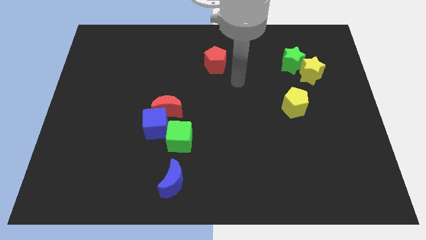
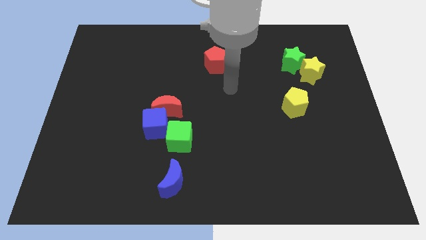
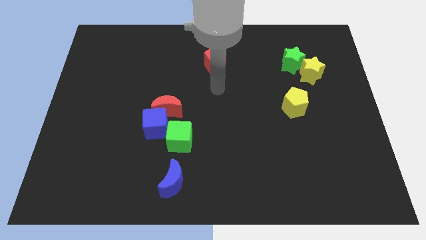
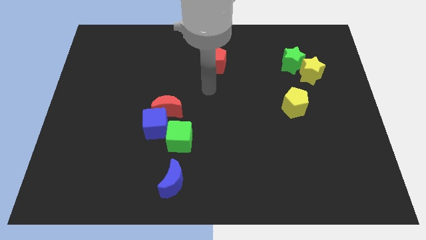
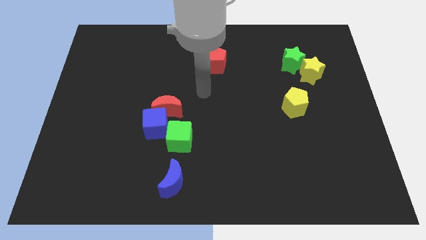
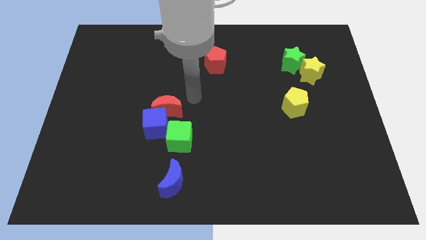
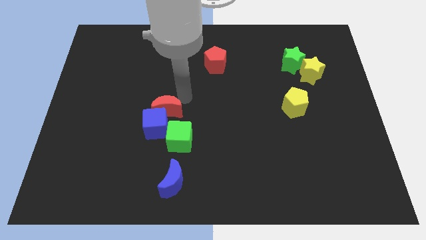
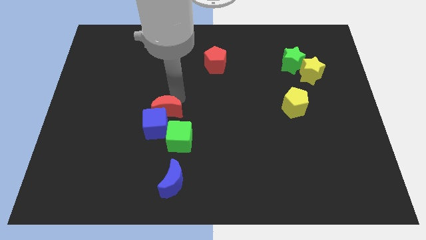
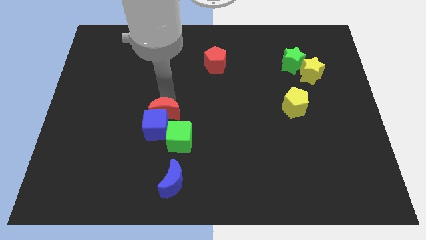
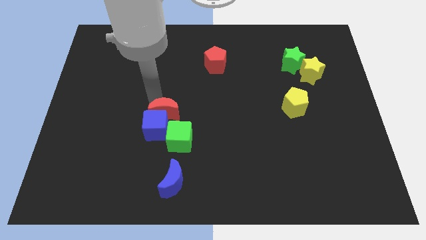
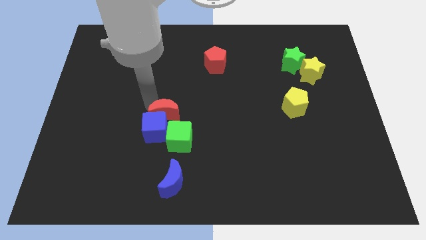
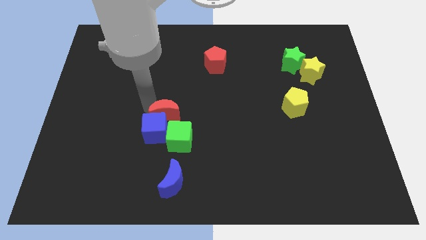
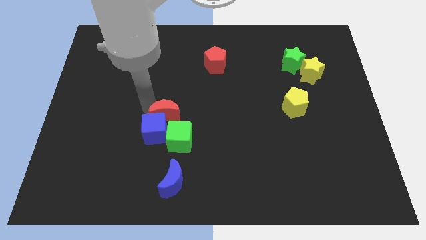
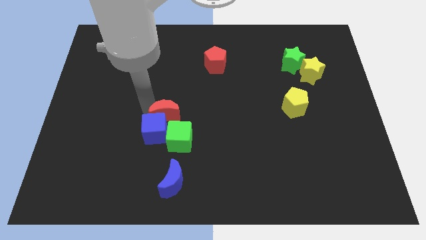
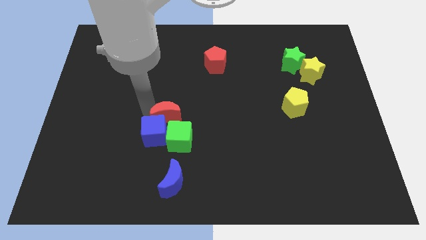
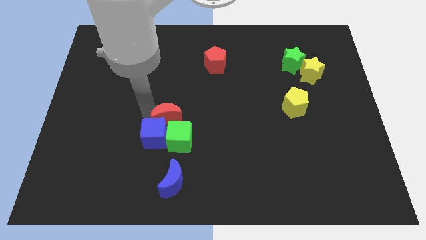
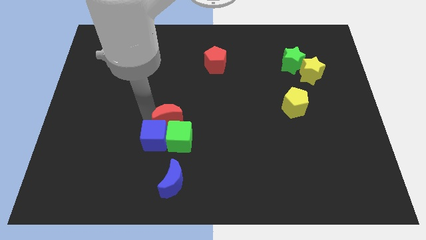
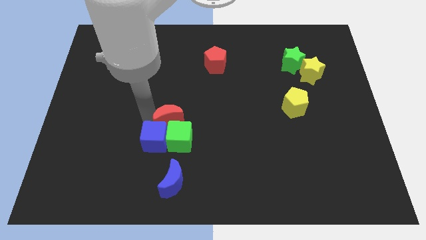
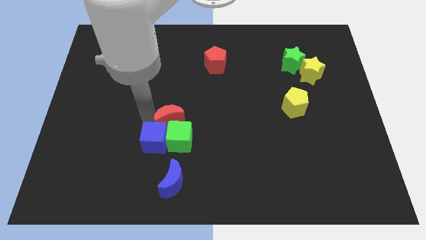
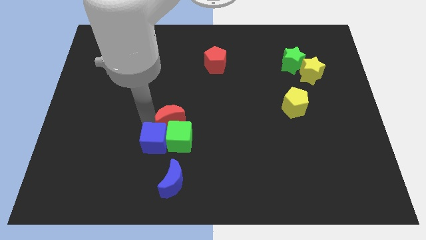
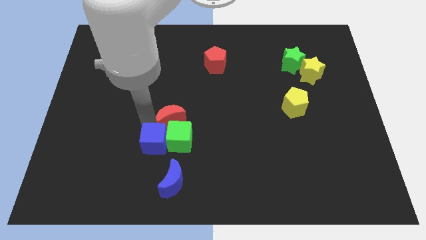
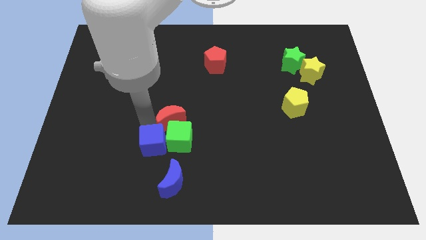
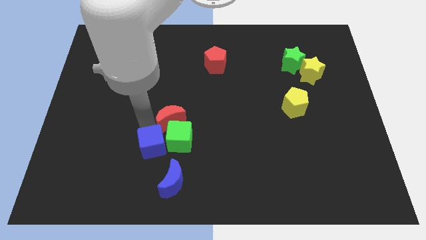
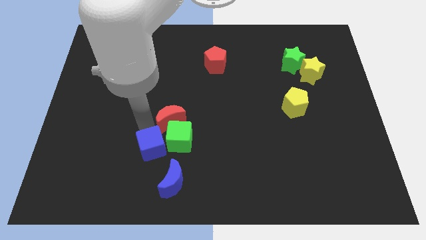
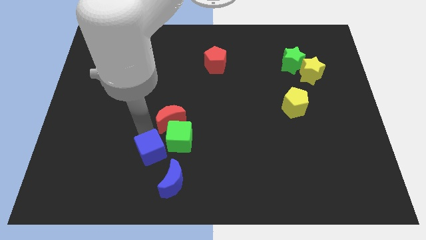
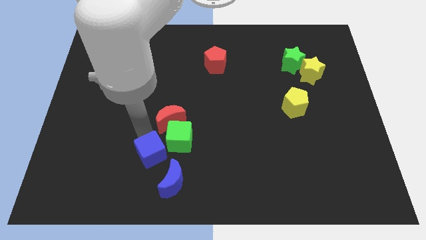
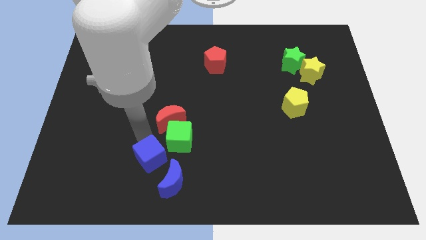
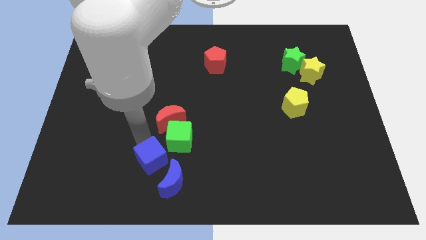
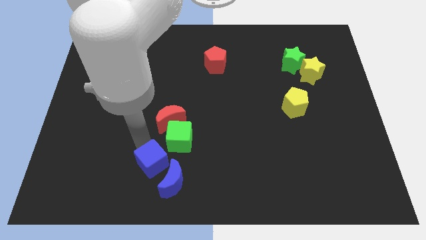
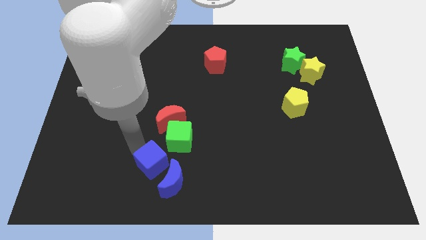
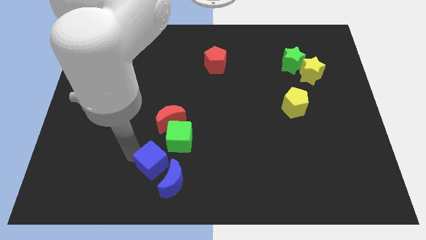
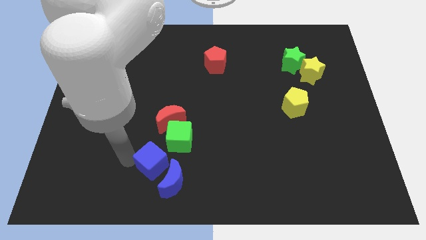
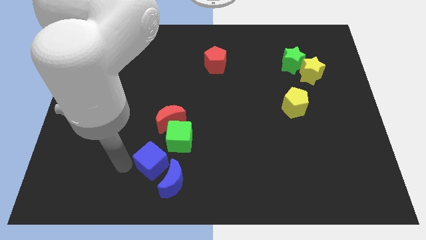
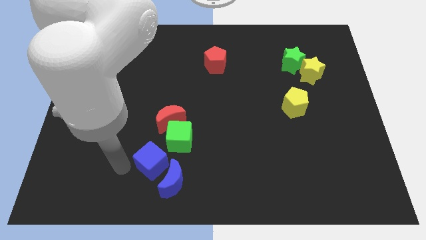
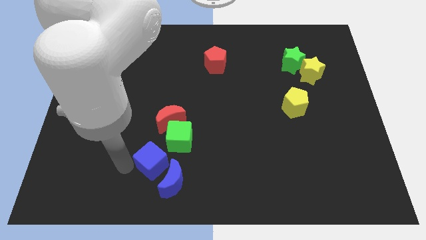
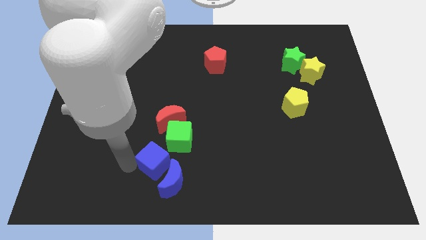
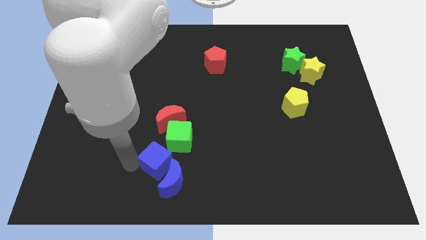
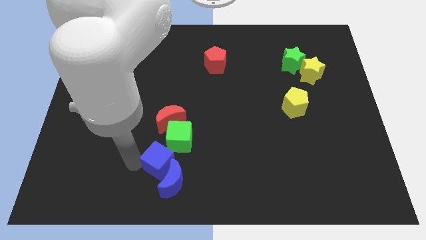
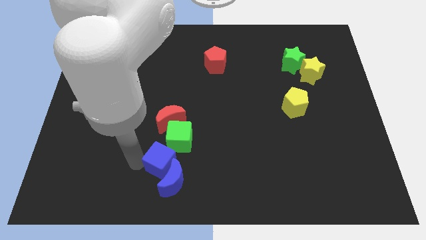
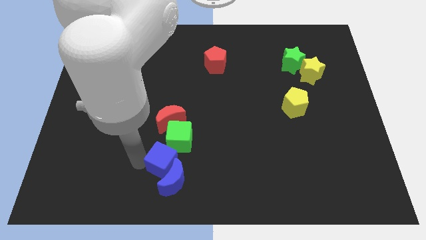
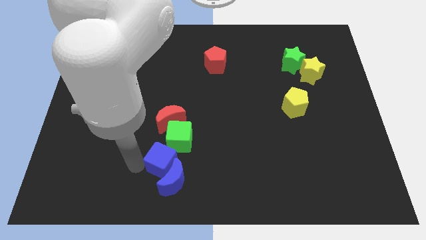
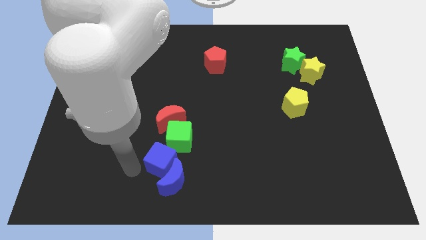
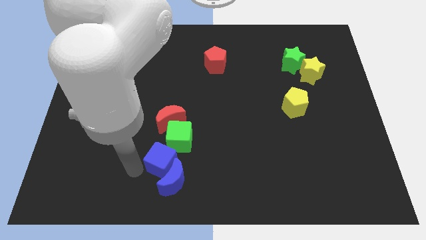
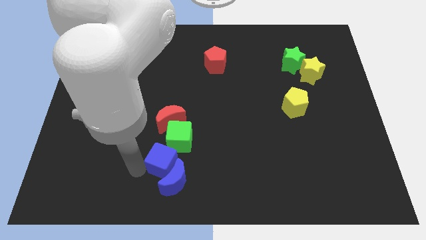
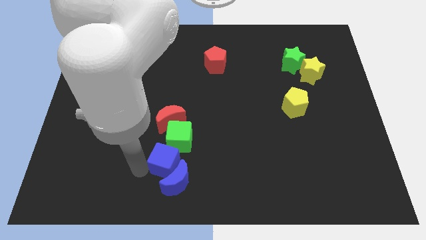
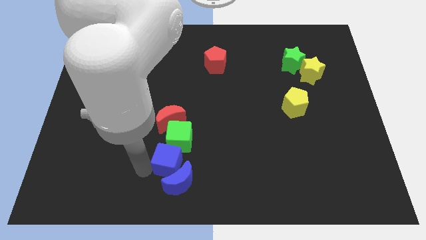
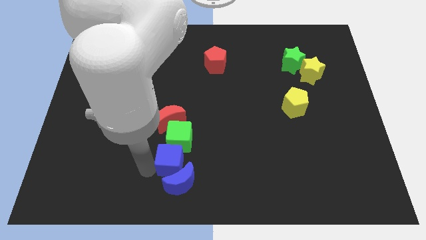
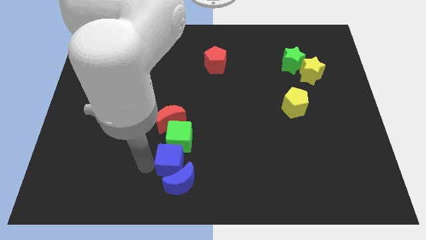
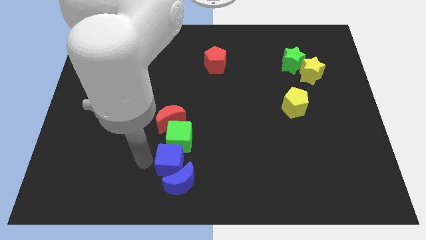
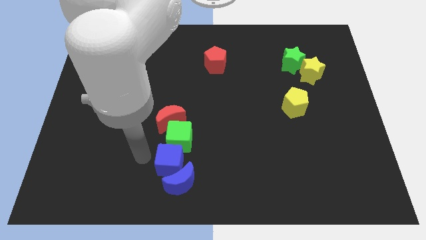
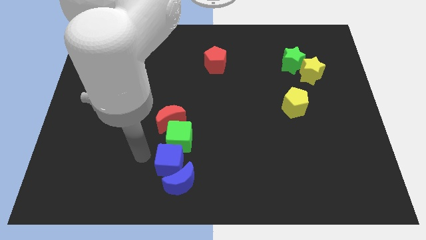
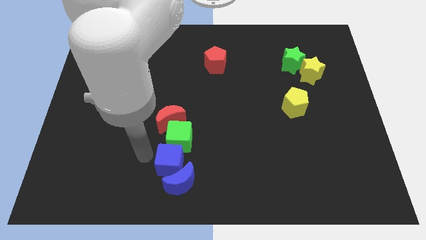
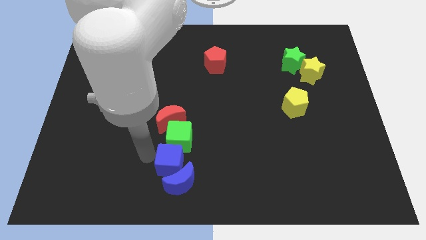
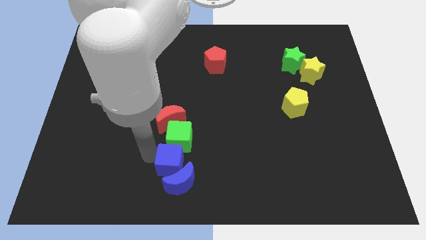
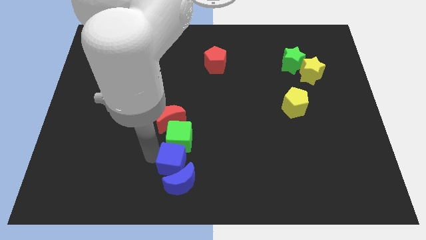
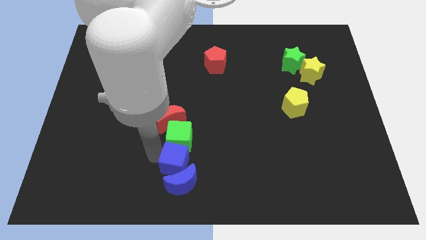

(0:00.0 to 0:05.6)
put the blue cube to the bottom

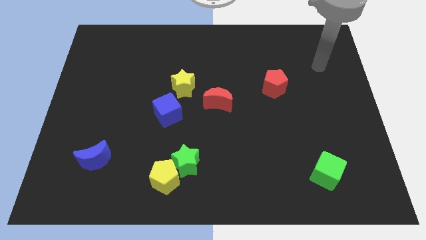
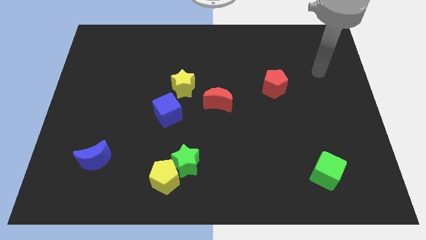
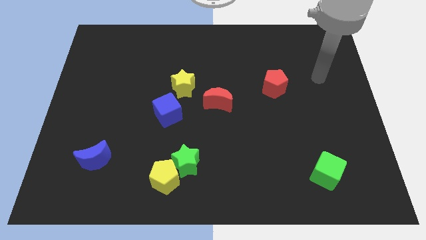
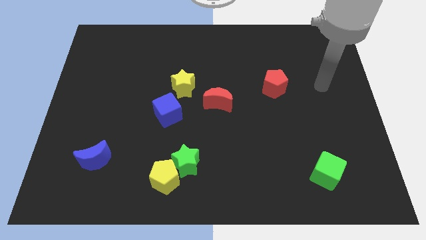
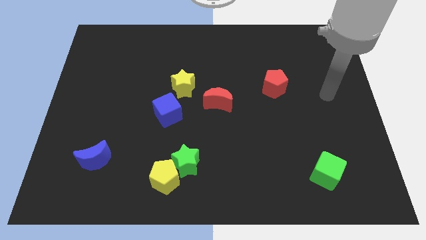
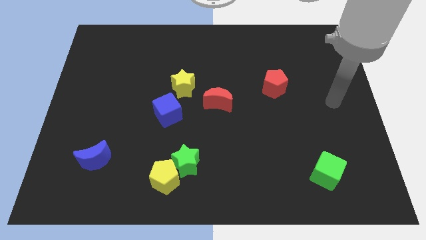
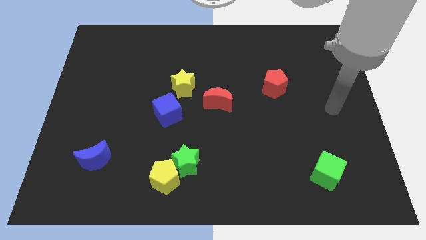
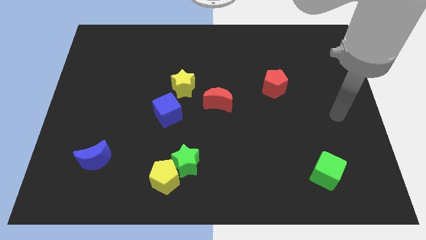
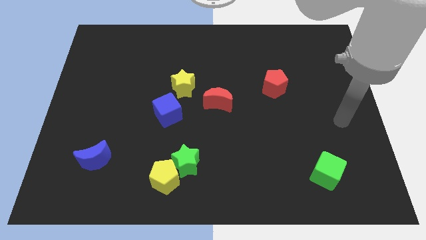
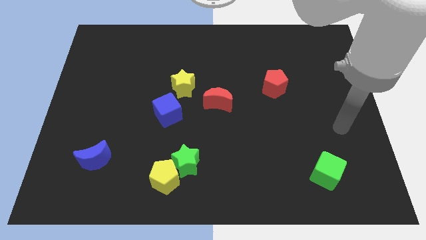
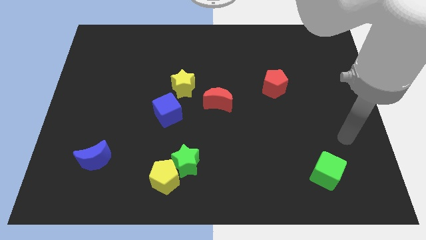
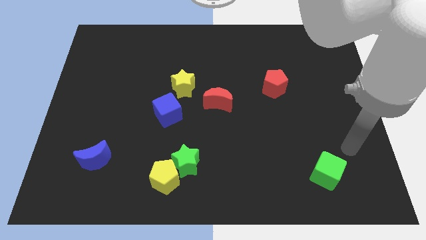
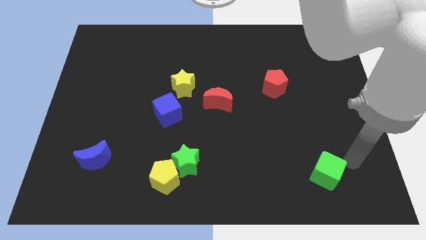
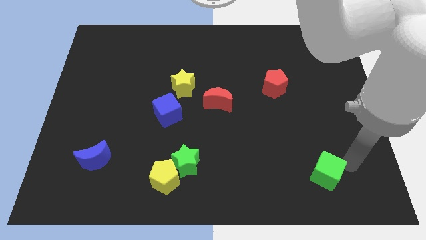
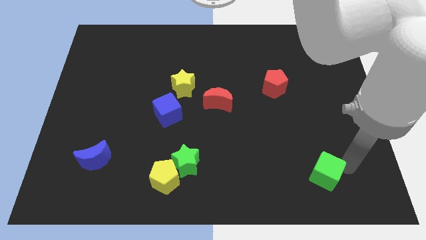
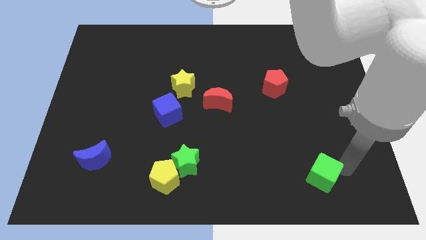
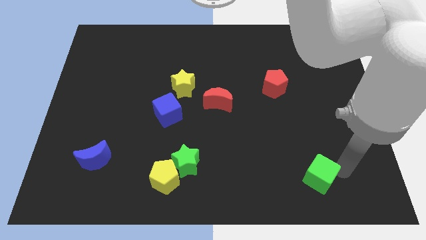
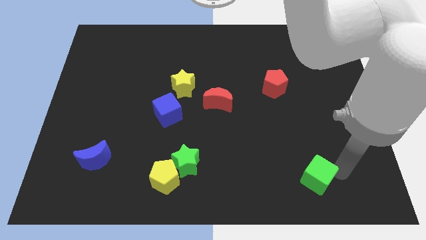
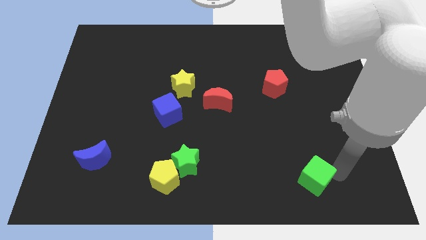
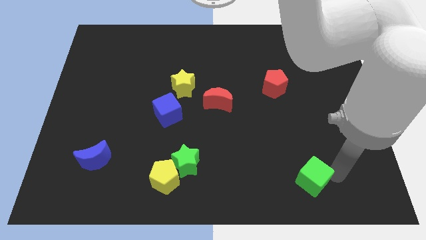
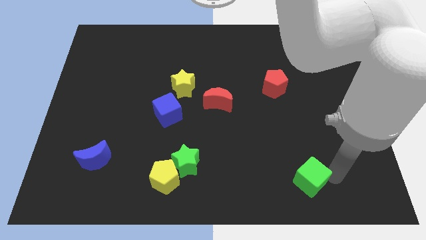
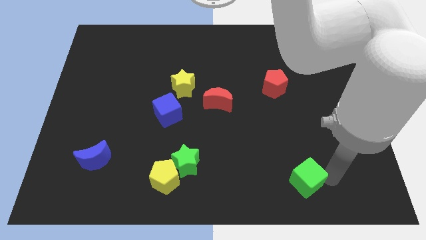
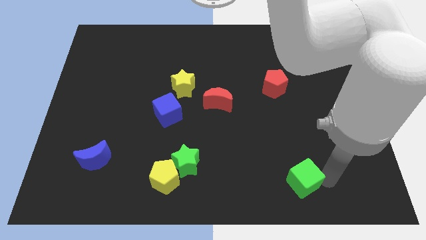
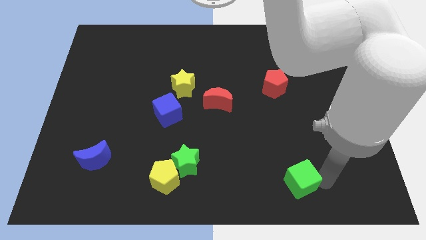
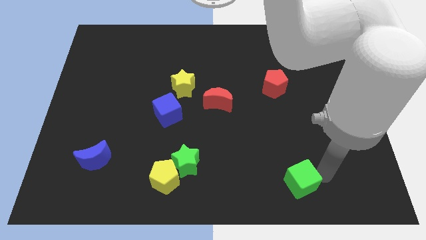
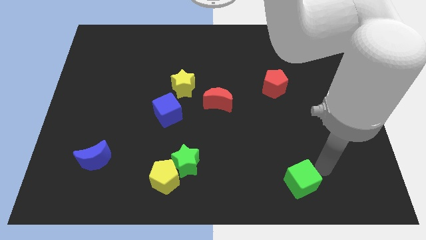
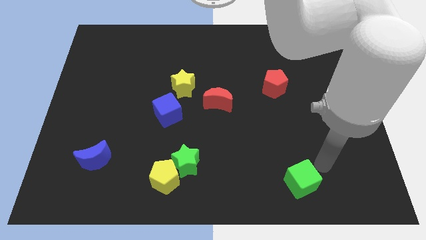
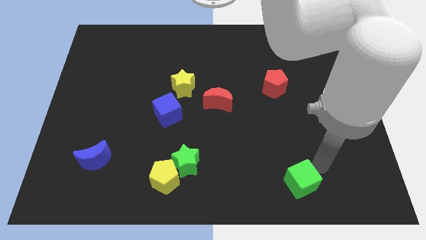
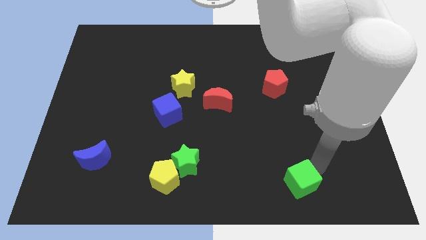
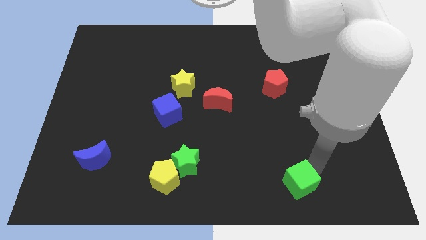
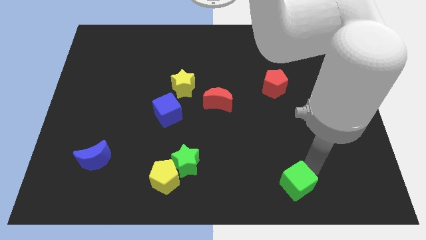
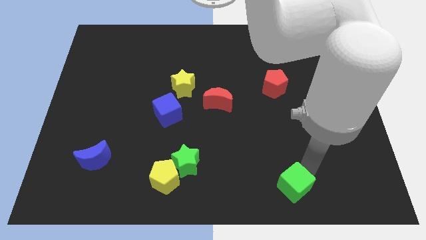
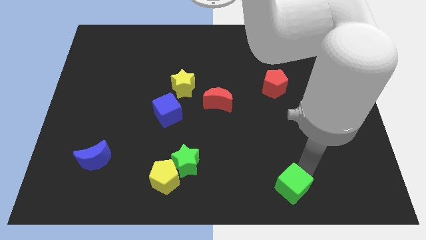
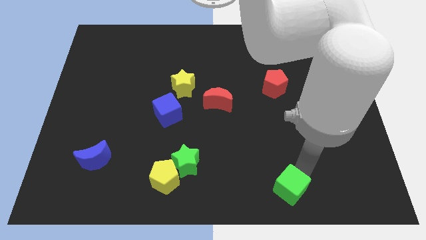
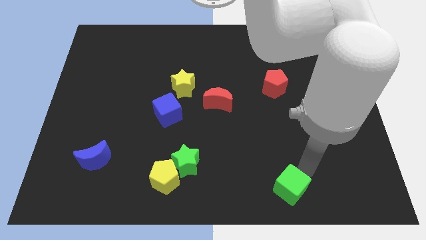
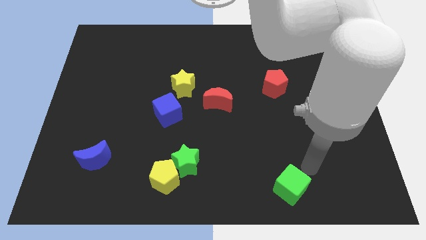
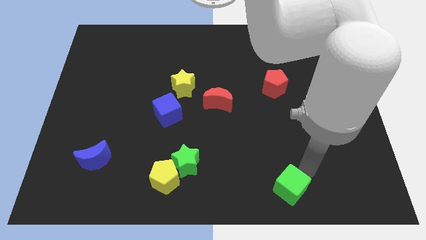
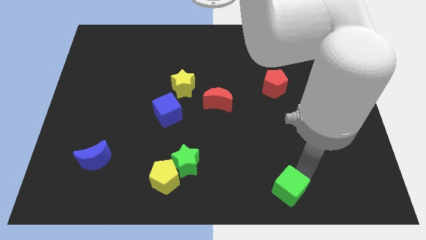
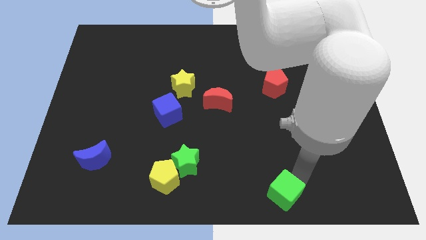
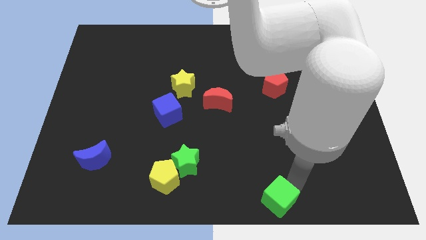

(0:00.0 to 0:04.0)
slide the green cube to the bottom side
